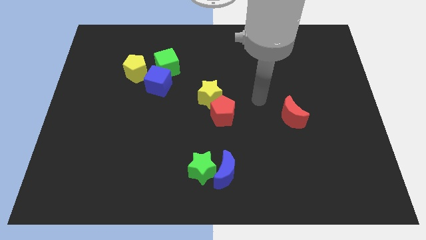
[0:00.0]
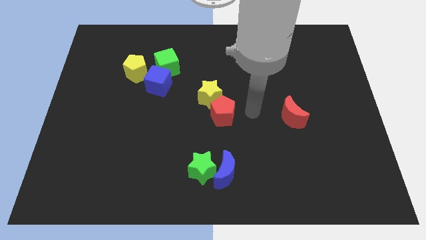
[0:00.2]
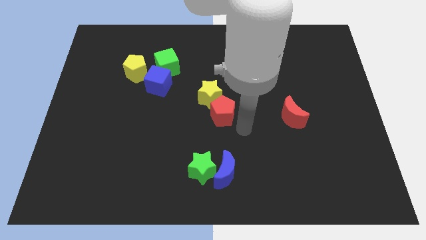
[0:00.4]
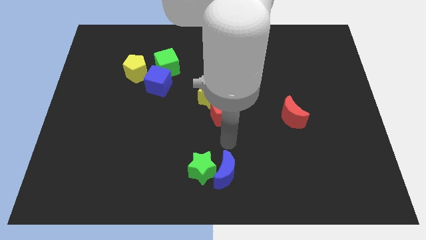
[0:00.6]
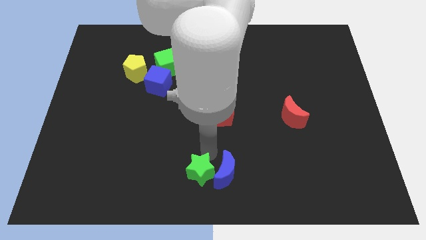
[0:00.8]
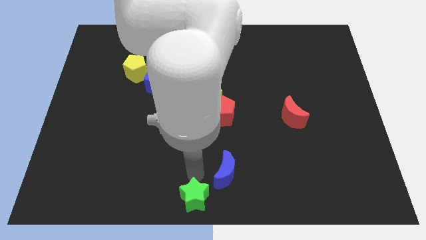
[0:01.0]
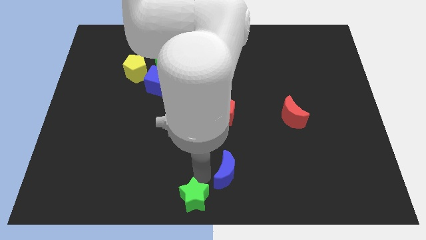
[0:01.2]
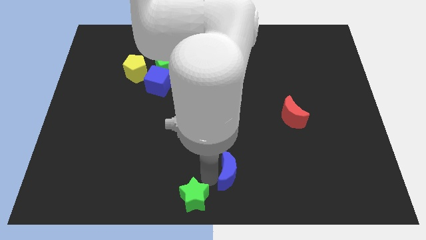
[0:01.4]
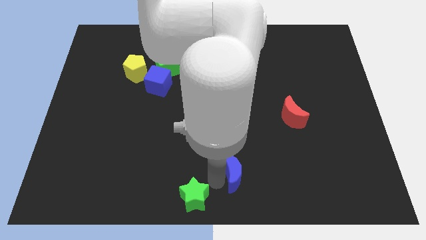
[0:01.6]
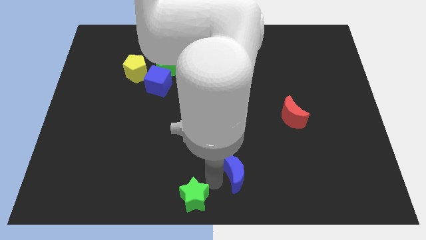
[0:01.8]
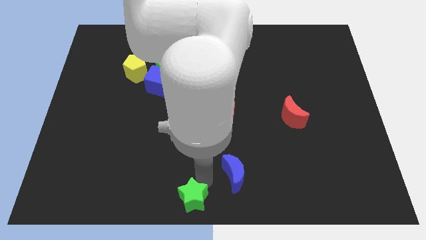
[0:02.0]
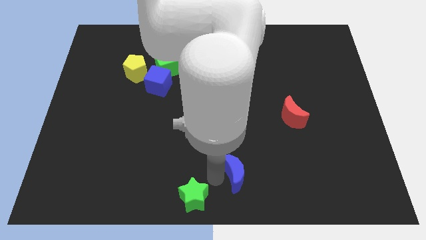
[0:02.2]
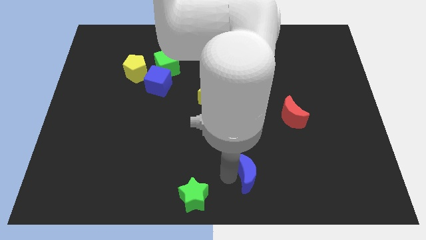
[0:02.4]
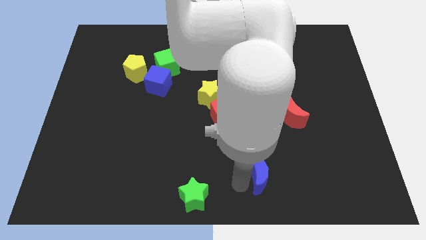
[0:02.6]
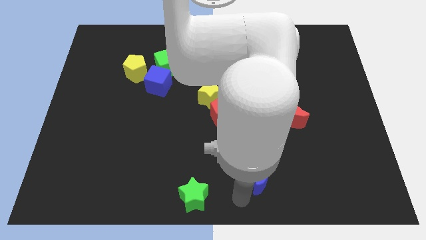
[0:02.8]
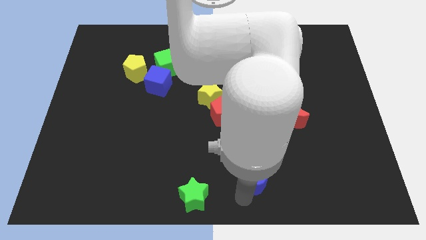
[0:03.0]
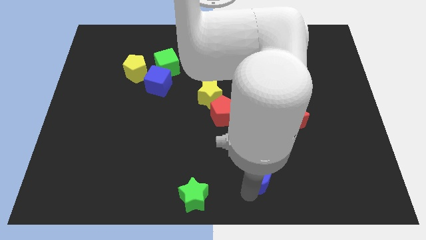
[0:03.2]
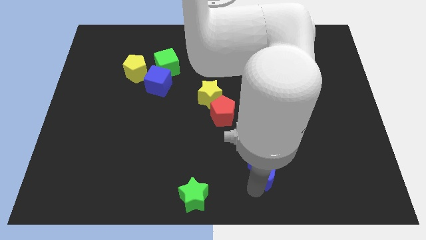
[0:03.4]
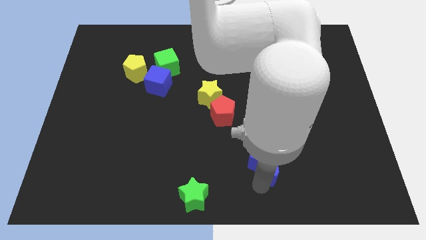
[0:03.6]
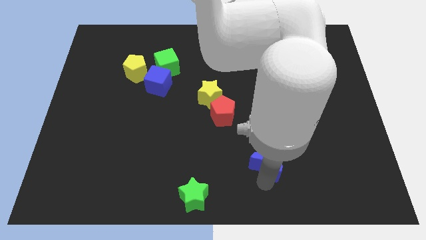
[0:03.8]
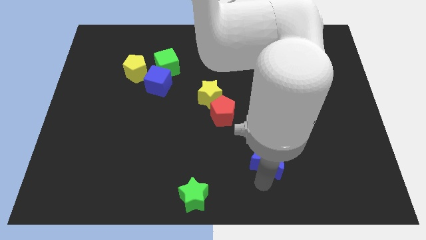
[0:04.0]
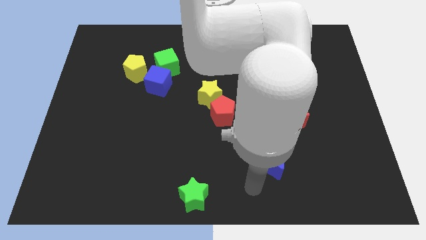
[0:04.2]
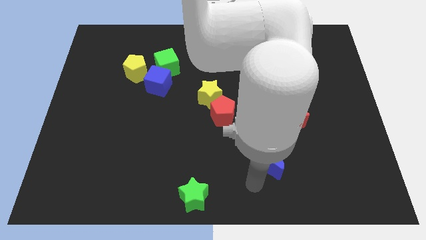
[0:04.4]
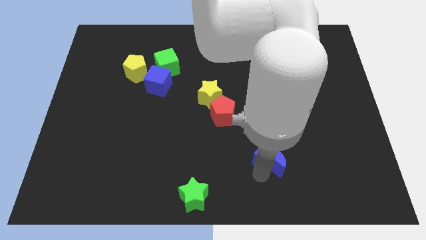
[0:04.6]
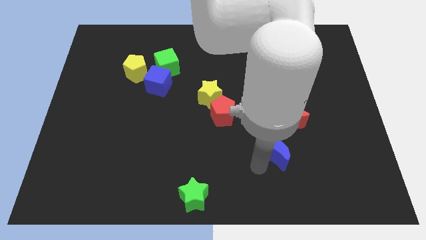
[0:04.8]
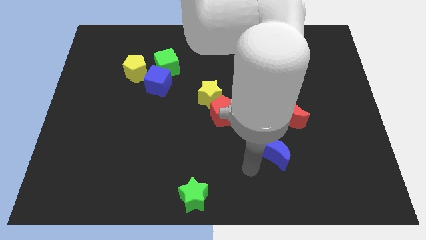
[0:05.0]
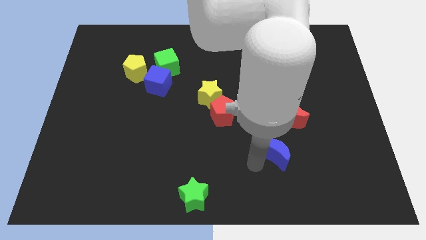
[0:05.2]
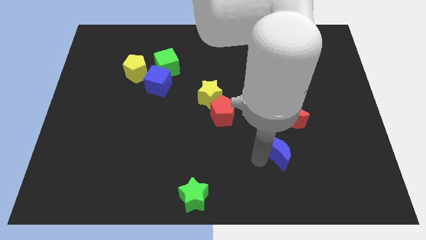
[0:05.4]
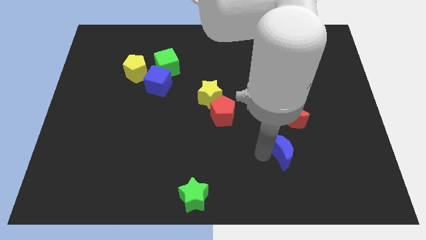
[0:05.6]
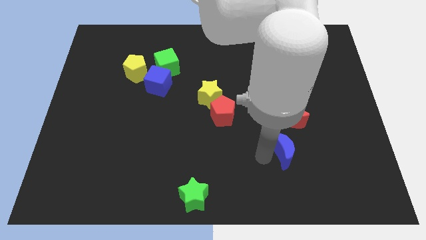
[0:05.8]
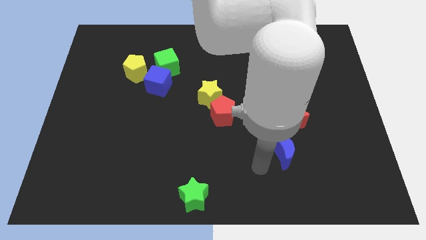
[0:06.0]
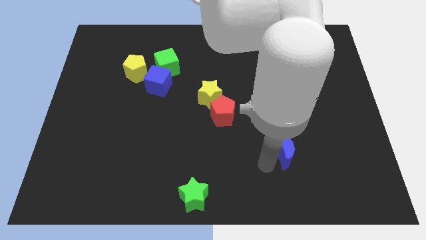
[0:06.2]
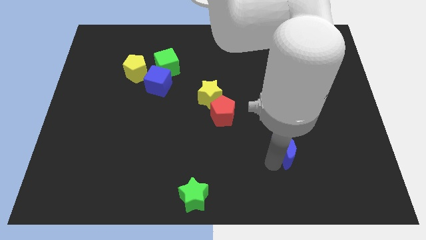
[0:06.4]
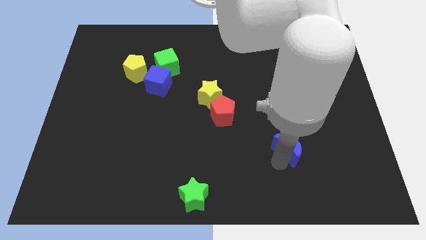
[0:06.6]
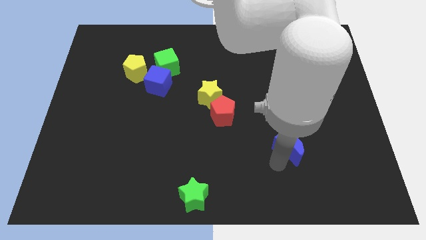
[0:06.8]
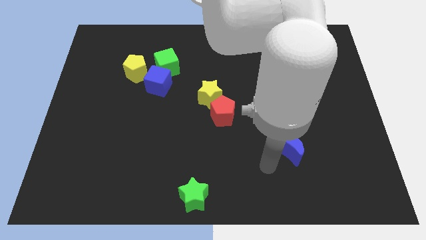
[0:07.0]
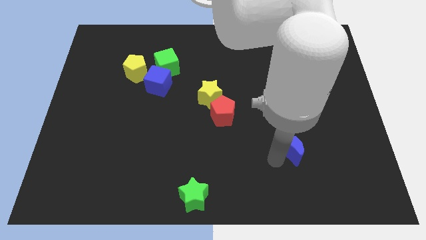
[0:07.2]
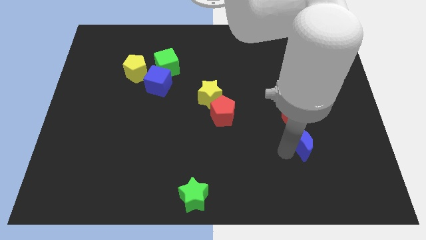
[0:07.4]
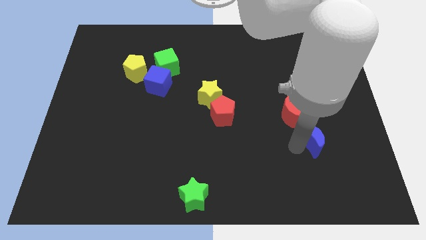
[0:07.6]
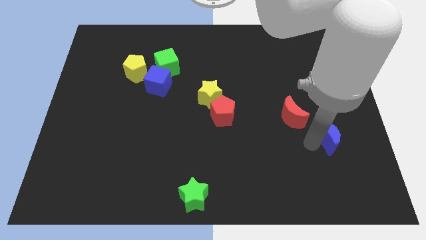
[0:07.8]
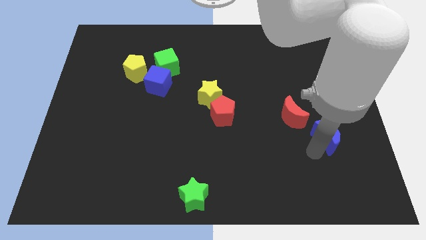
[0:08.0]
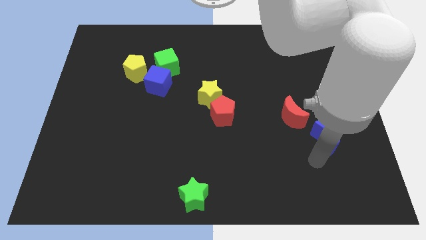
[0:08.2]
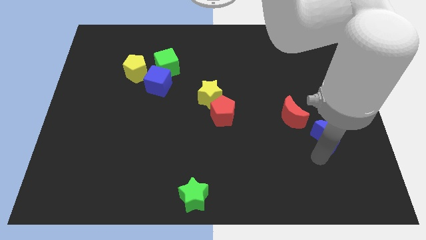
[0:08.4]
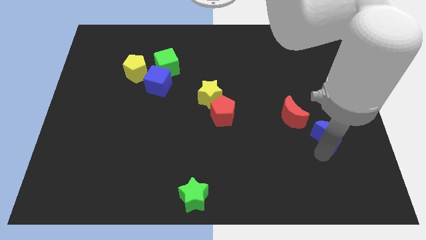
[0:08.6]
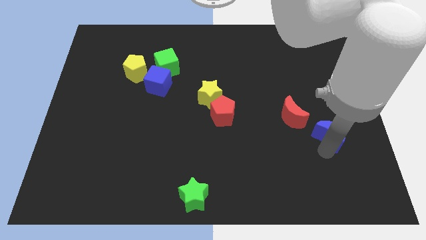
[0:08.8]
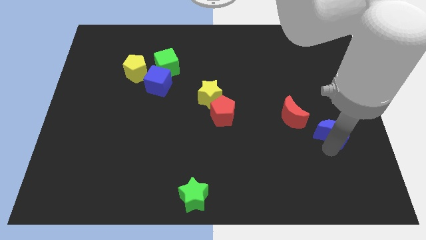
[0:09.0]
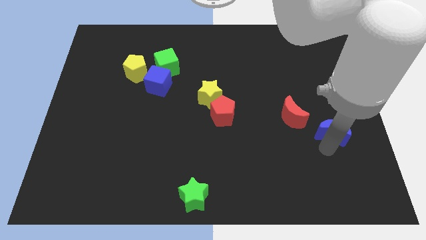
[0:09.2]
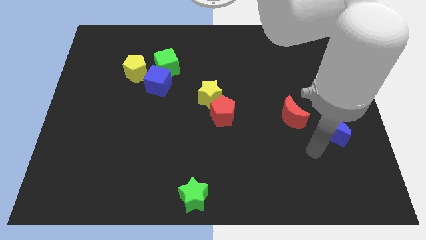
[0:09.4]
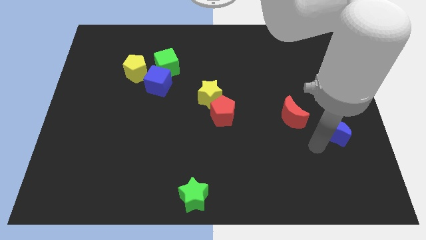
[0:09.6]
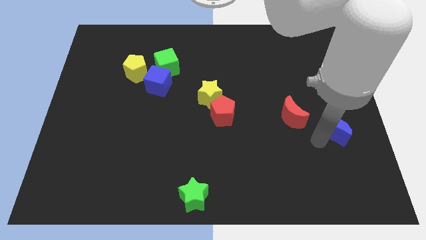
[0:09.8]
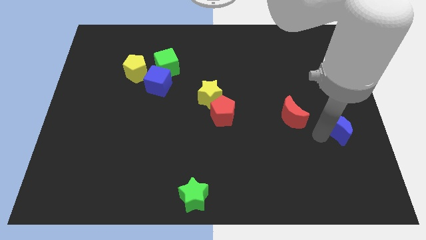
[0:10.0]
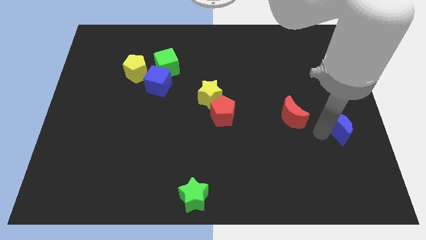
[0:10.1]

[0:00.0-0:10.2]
move the blue moon to the right side of the board

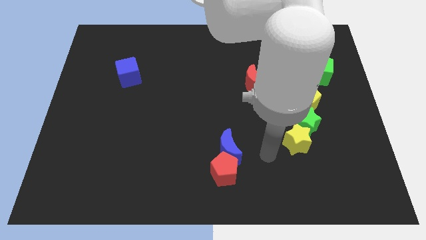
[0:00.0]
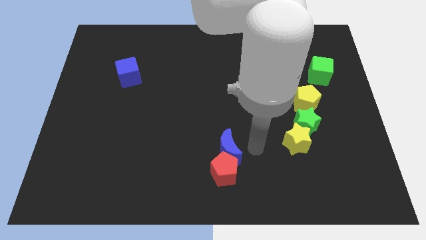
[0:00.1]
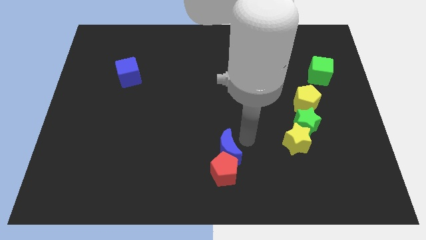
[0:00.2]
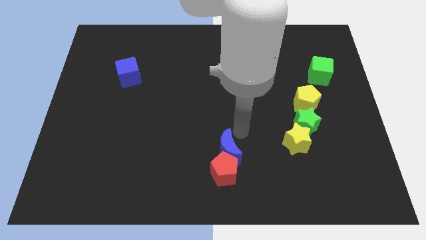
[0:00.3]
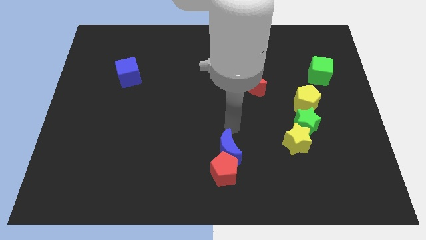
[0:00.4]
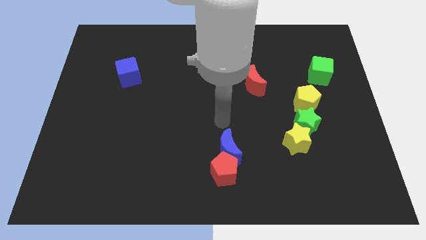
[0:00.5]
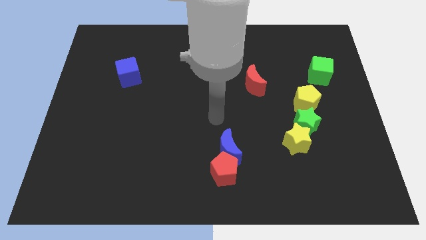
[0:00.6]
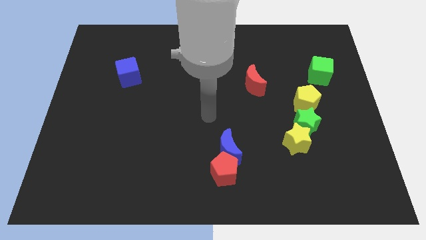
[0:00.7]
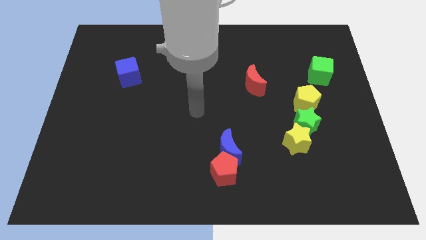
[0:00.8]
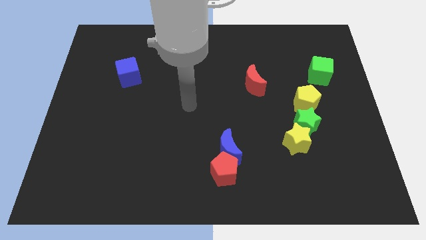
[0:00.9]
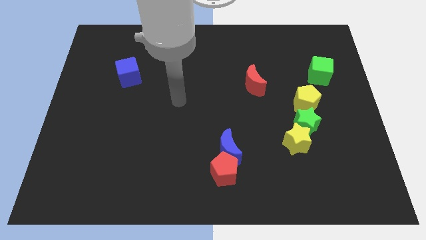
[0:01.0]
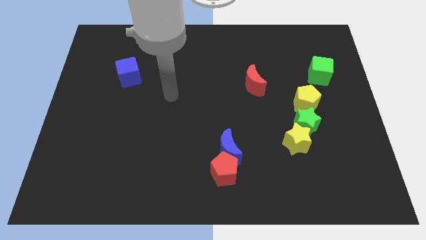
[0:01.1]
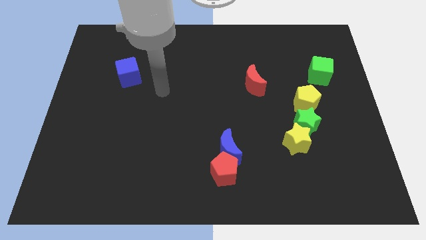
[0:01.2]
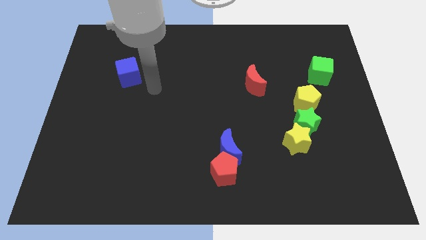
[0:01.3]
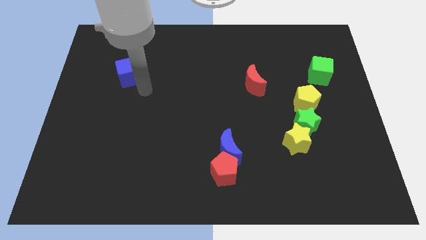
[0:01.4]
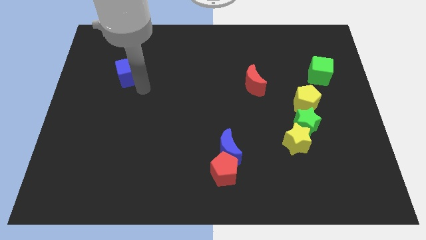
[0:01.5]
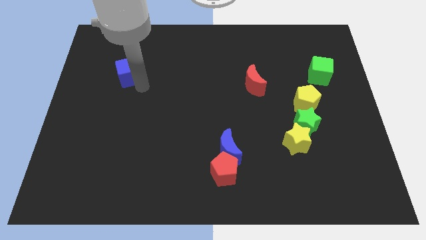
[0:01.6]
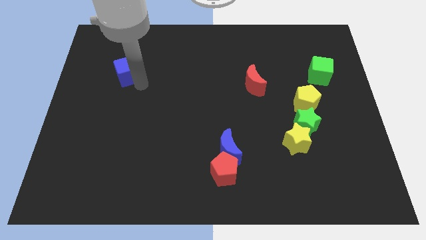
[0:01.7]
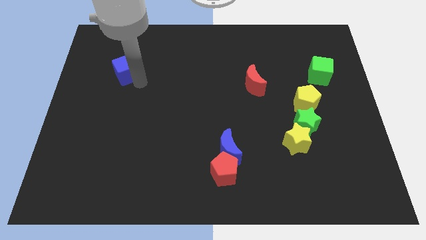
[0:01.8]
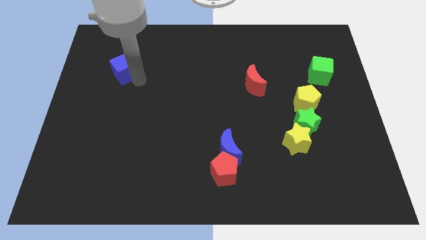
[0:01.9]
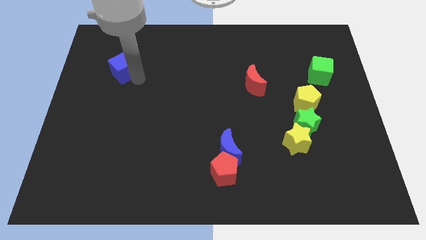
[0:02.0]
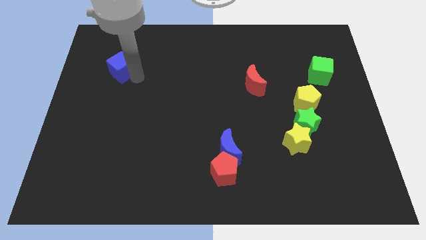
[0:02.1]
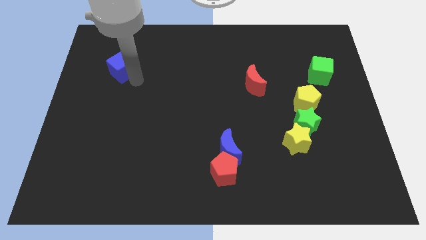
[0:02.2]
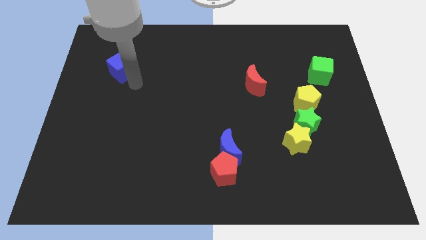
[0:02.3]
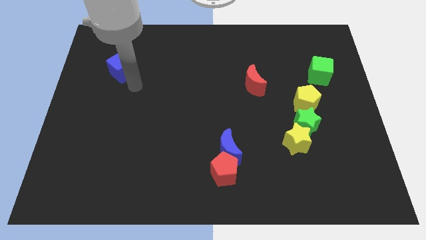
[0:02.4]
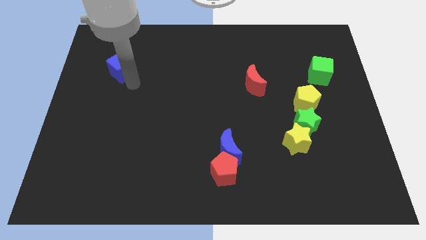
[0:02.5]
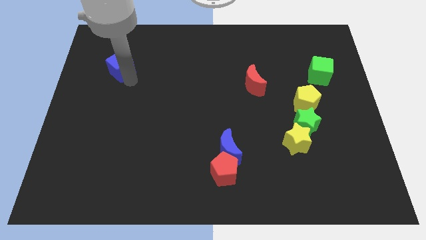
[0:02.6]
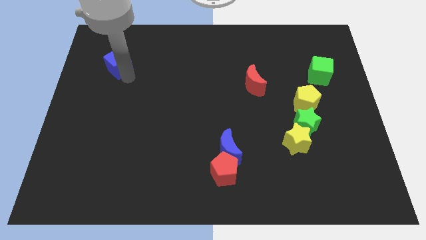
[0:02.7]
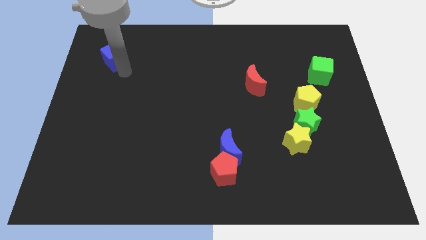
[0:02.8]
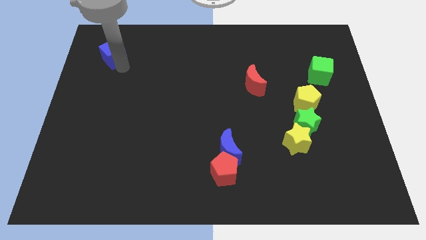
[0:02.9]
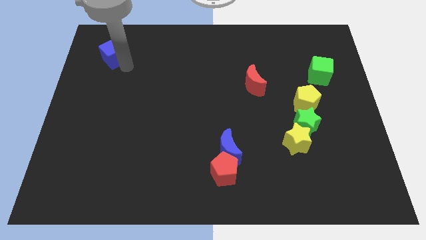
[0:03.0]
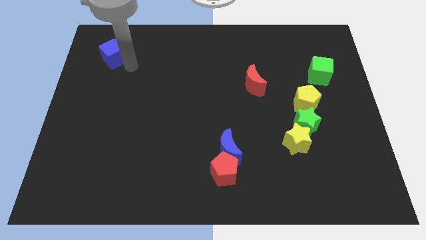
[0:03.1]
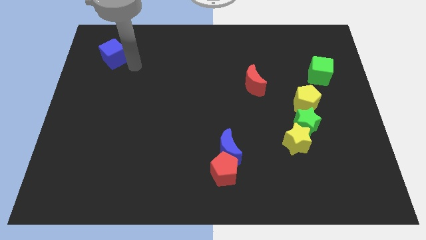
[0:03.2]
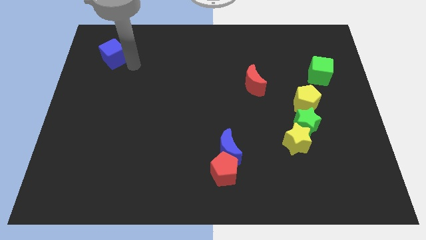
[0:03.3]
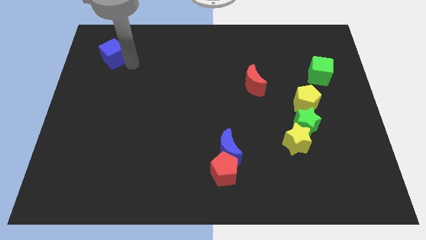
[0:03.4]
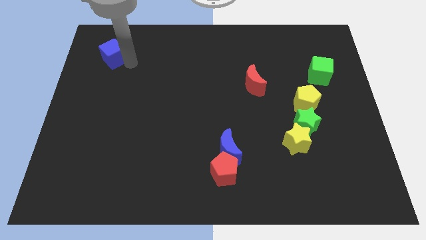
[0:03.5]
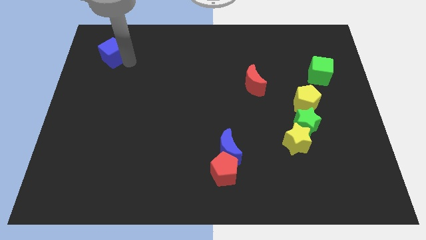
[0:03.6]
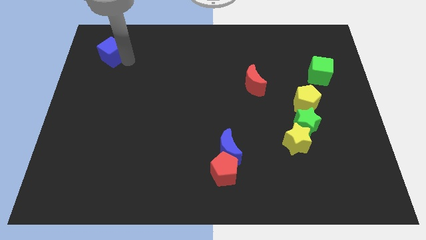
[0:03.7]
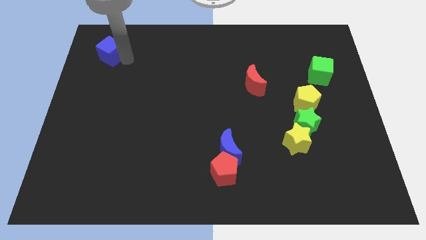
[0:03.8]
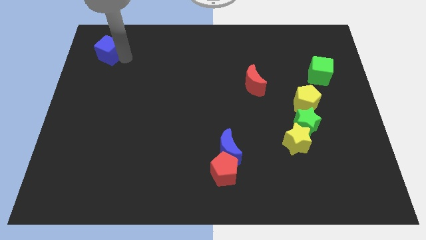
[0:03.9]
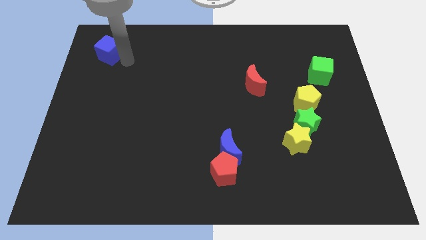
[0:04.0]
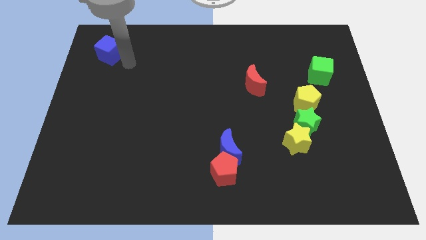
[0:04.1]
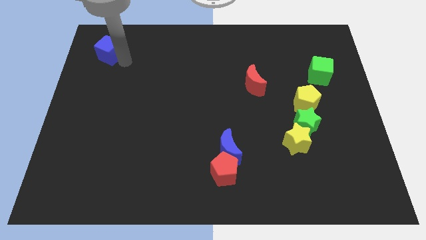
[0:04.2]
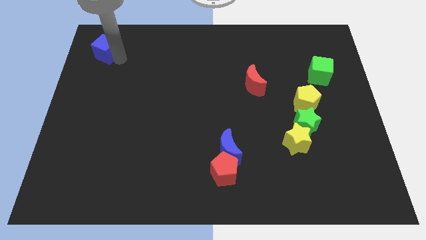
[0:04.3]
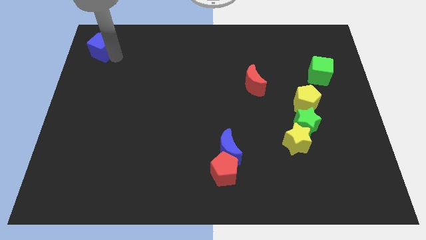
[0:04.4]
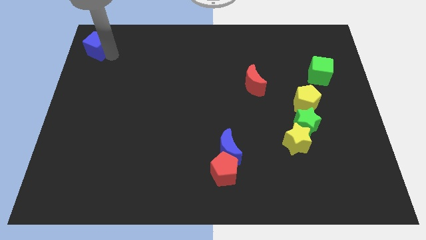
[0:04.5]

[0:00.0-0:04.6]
put the blue cube to the top left
